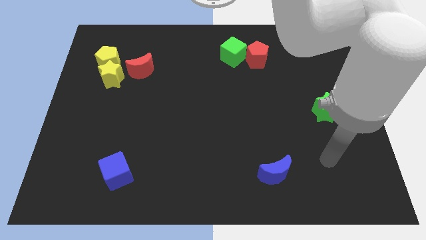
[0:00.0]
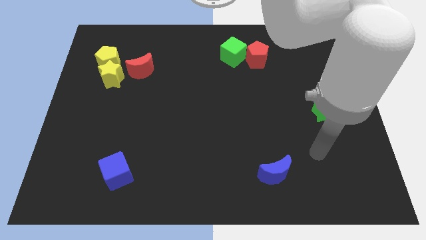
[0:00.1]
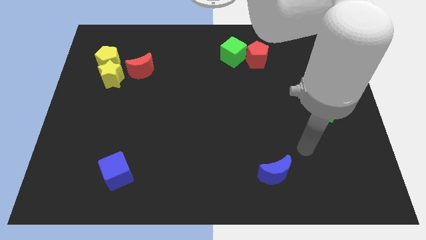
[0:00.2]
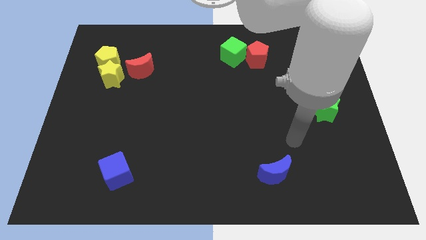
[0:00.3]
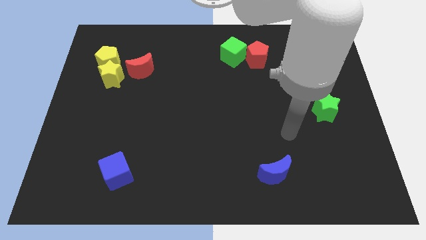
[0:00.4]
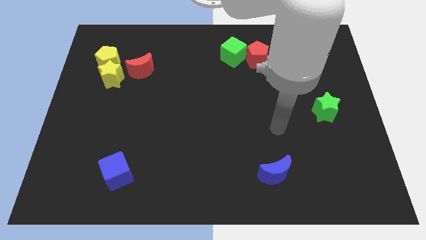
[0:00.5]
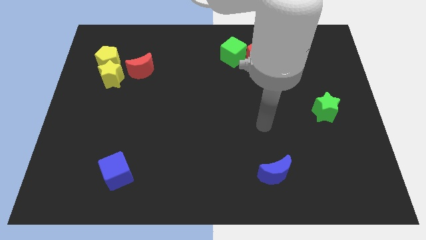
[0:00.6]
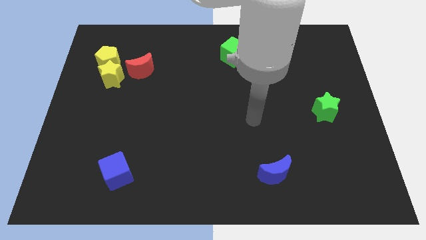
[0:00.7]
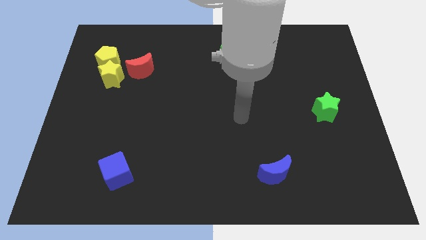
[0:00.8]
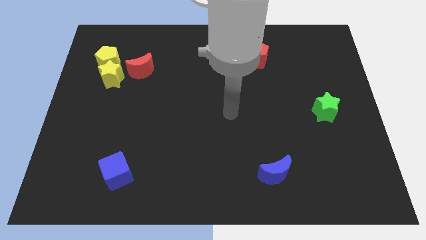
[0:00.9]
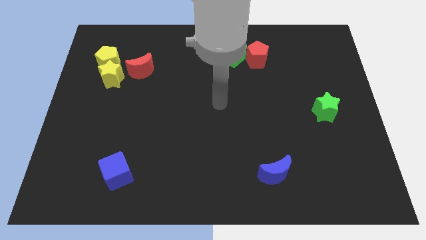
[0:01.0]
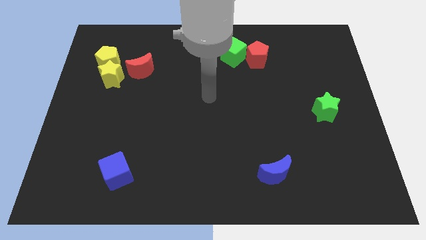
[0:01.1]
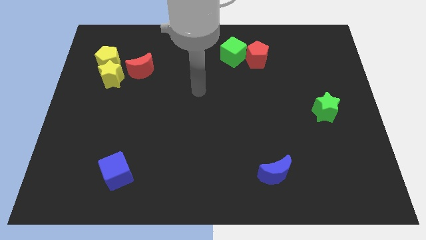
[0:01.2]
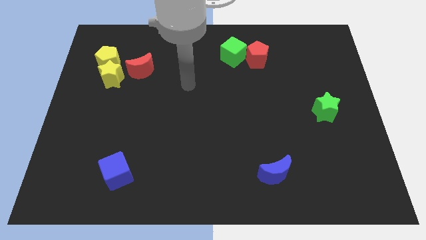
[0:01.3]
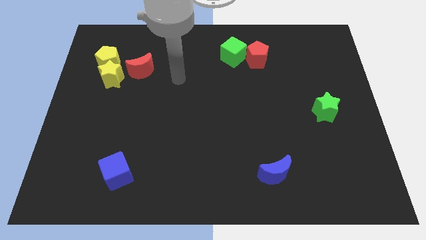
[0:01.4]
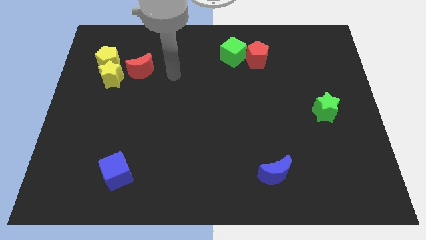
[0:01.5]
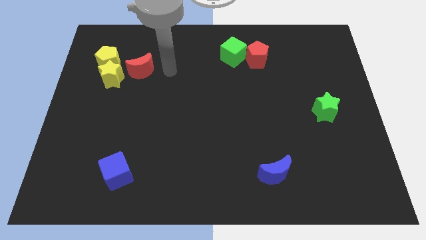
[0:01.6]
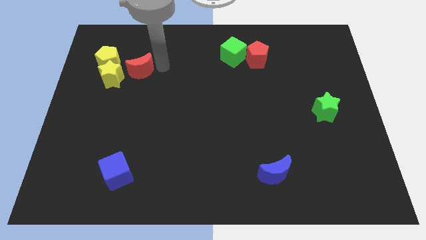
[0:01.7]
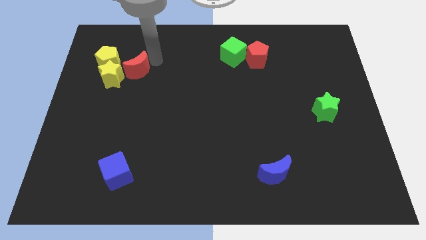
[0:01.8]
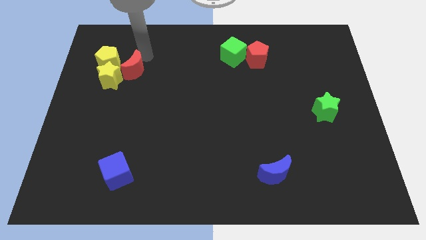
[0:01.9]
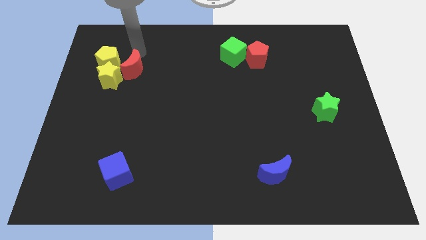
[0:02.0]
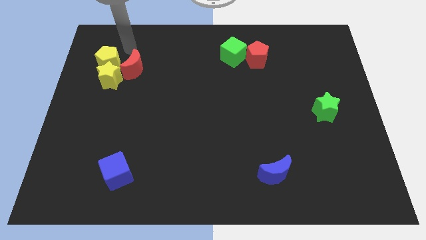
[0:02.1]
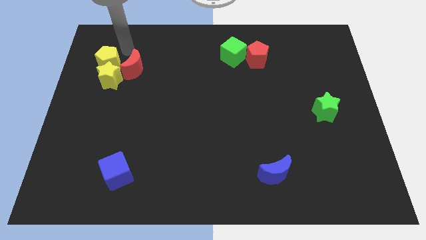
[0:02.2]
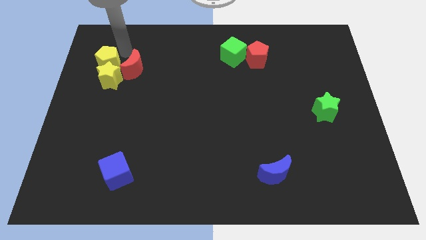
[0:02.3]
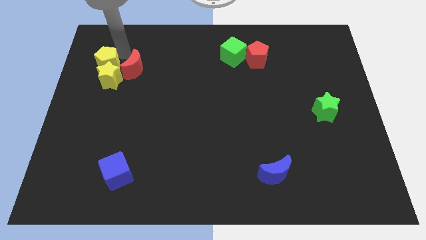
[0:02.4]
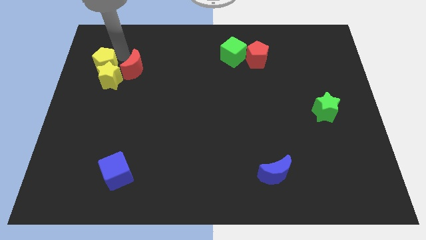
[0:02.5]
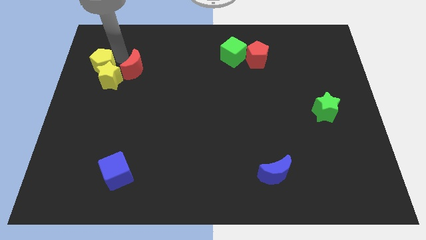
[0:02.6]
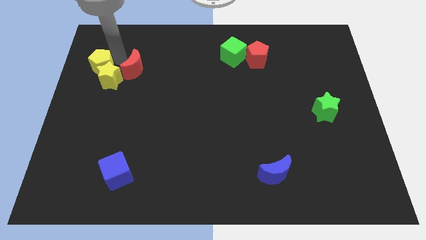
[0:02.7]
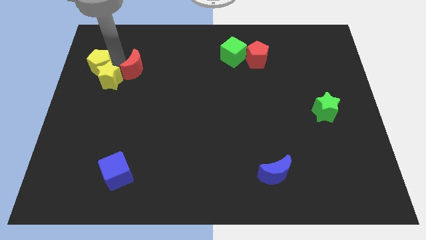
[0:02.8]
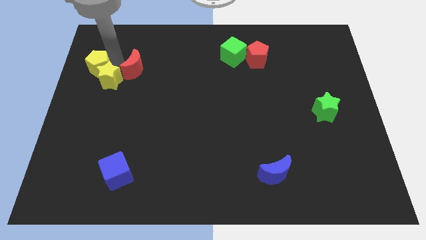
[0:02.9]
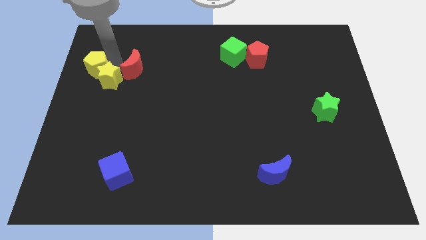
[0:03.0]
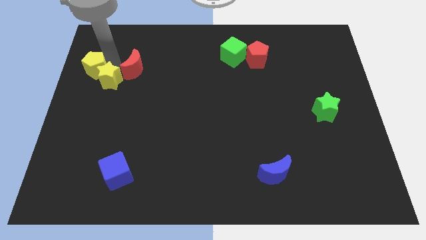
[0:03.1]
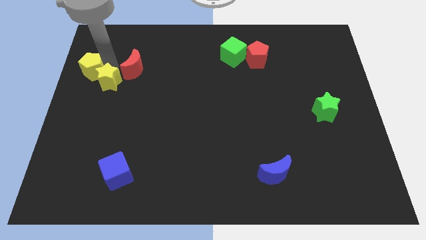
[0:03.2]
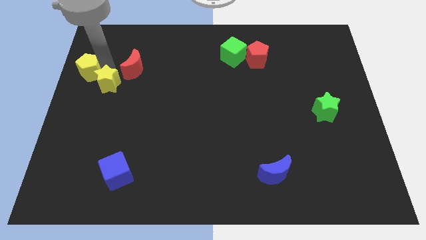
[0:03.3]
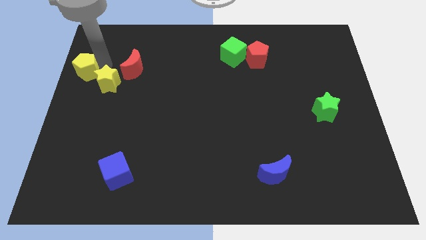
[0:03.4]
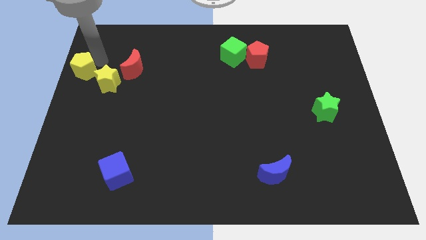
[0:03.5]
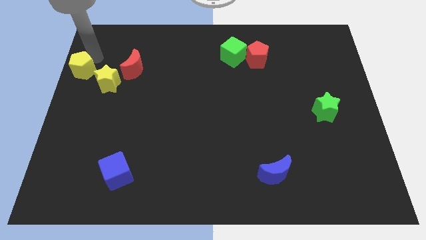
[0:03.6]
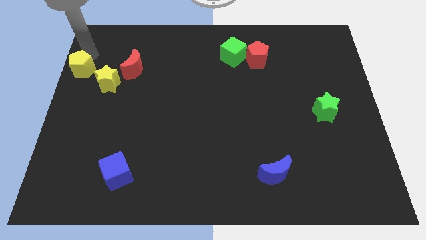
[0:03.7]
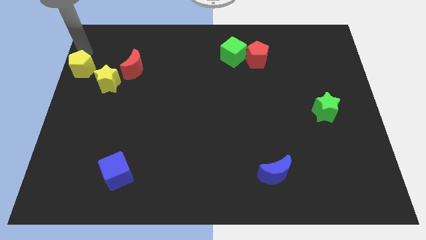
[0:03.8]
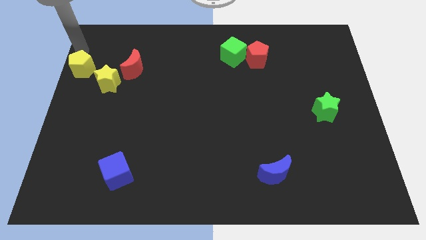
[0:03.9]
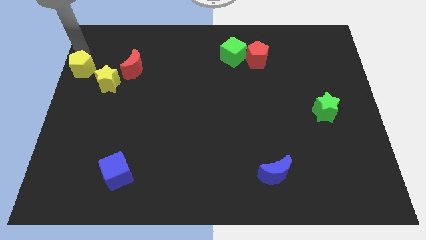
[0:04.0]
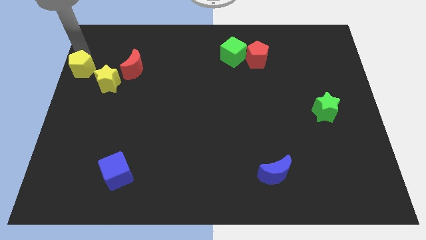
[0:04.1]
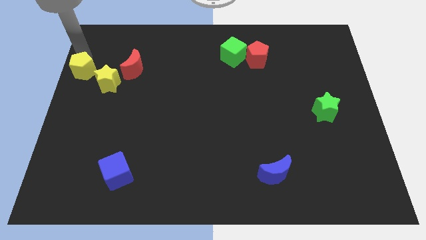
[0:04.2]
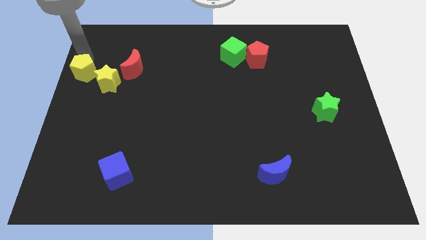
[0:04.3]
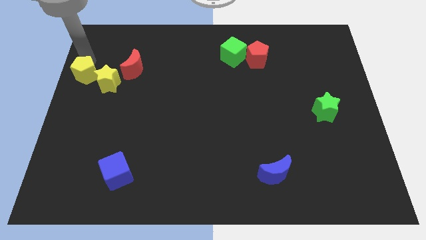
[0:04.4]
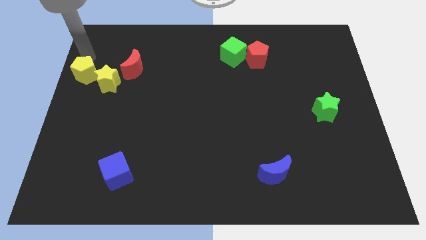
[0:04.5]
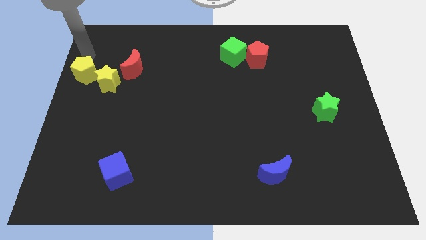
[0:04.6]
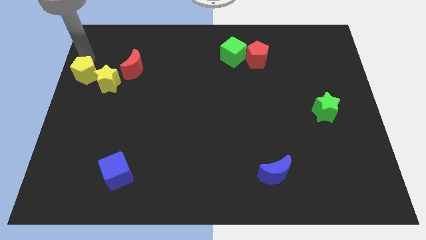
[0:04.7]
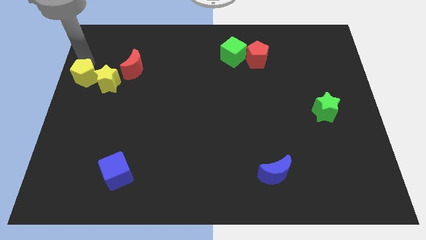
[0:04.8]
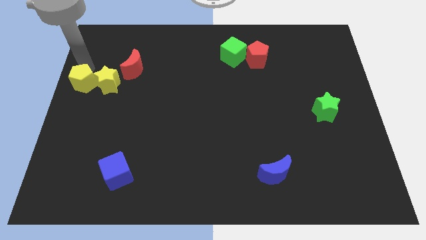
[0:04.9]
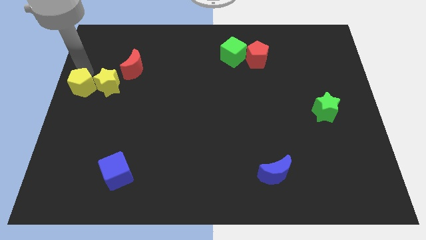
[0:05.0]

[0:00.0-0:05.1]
slightly push the yellow pentagon down

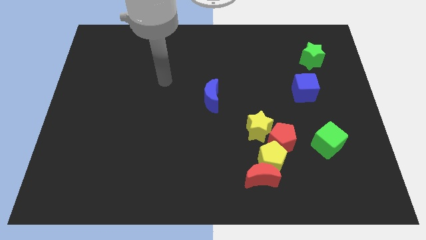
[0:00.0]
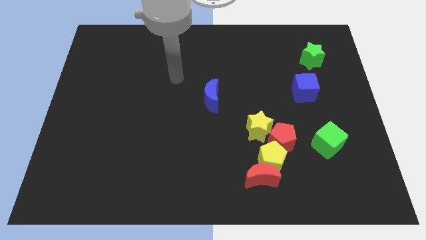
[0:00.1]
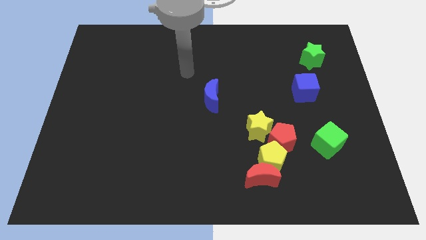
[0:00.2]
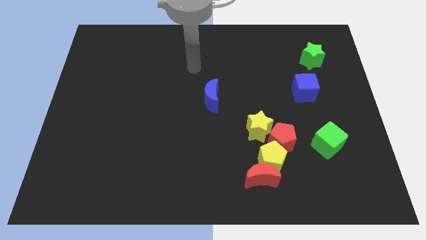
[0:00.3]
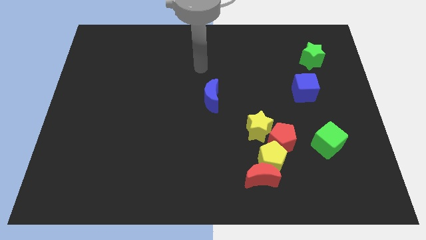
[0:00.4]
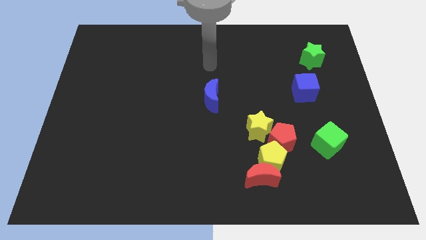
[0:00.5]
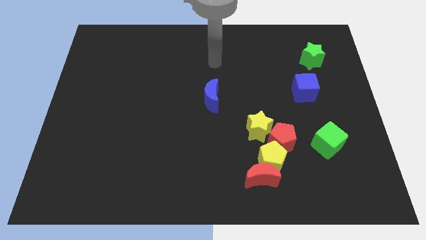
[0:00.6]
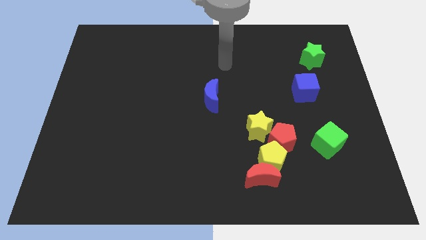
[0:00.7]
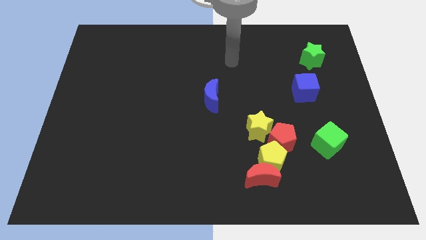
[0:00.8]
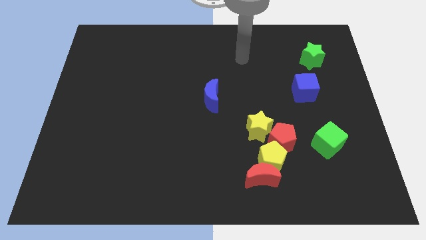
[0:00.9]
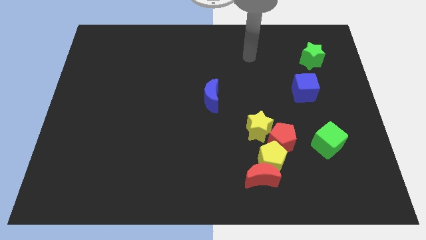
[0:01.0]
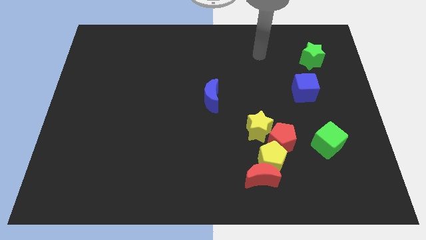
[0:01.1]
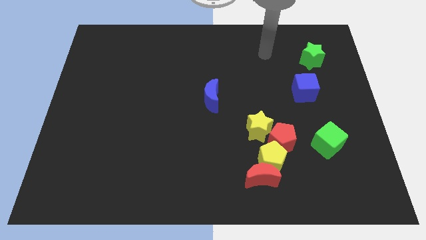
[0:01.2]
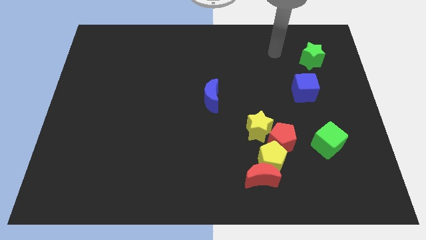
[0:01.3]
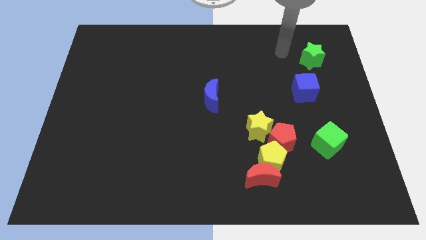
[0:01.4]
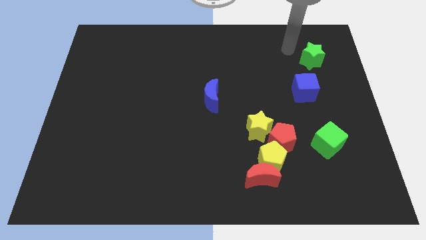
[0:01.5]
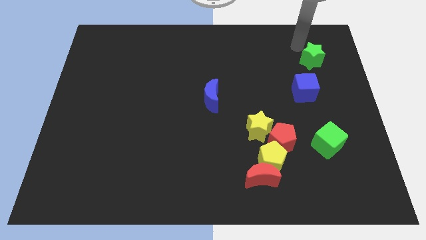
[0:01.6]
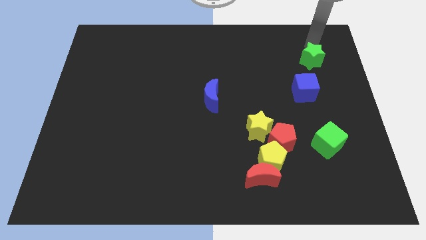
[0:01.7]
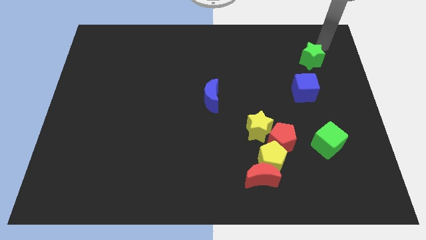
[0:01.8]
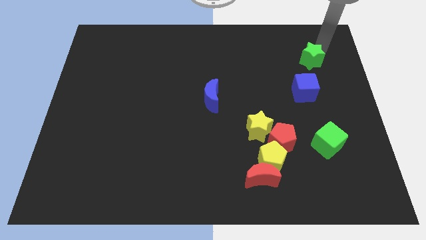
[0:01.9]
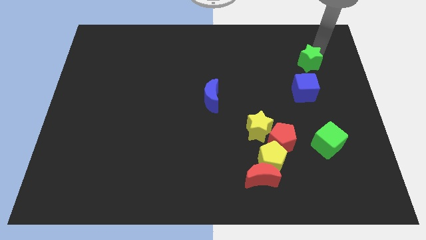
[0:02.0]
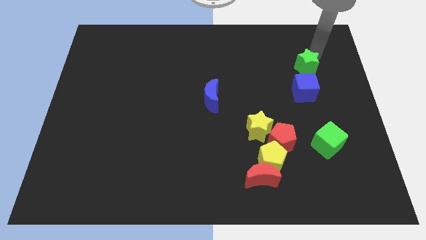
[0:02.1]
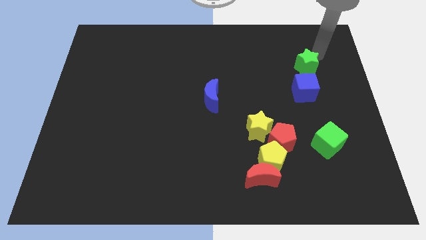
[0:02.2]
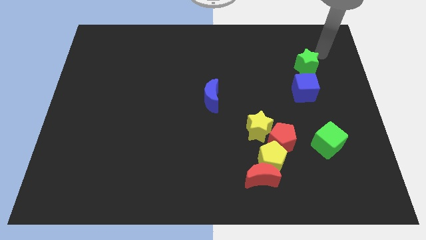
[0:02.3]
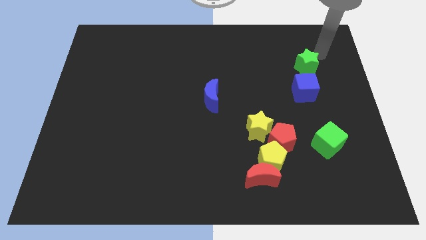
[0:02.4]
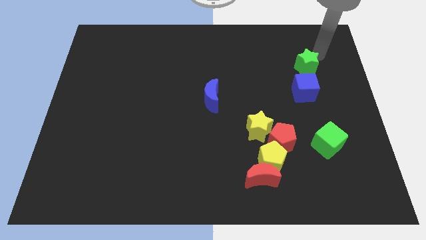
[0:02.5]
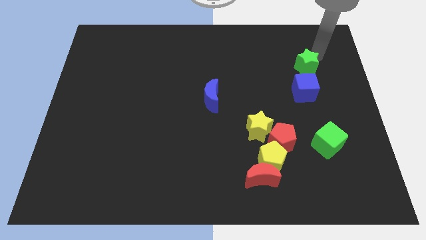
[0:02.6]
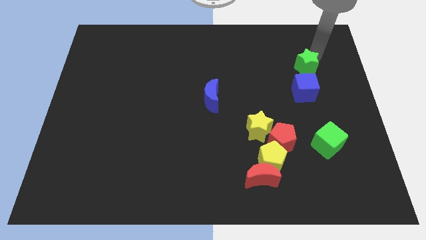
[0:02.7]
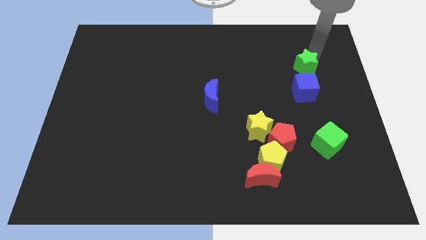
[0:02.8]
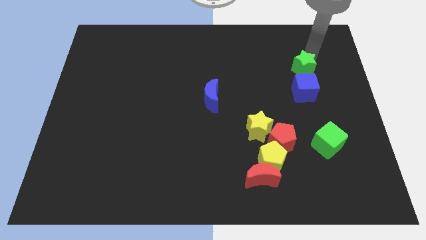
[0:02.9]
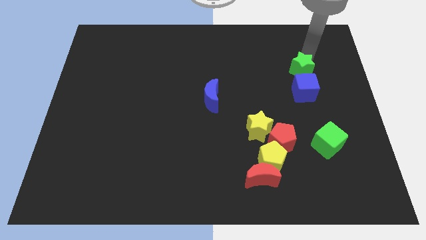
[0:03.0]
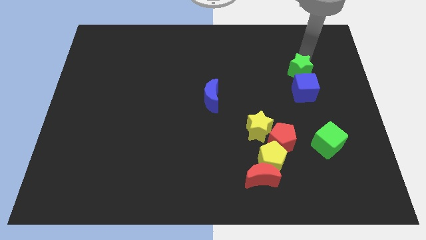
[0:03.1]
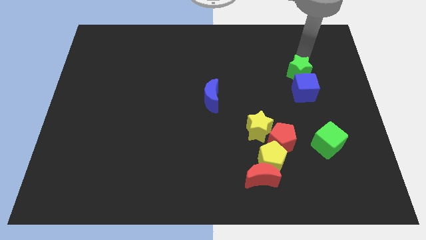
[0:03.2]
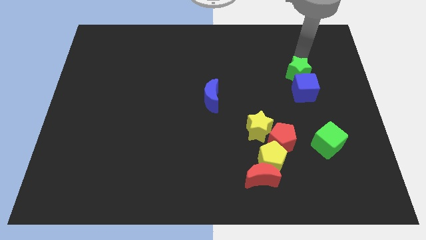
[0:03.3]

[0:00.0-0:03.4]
slightly push the green star downwards and then to the left
